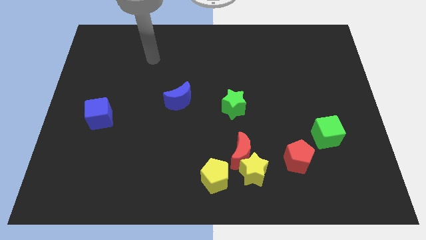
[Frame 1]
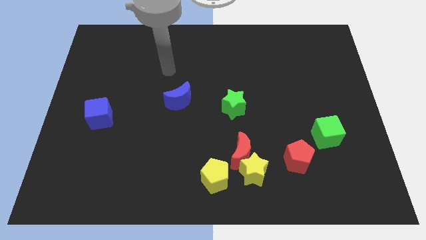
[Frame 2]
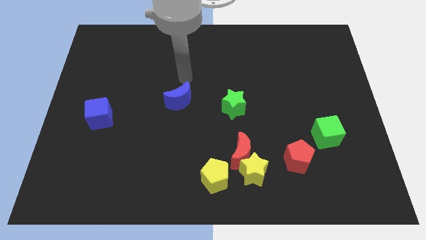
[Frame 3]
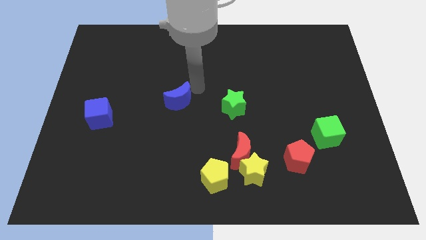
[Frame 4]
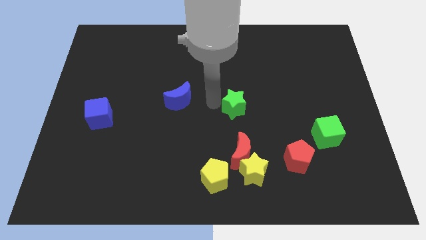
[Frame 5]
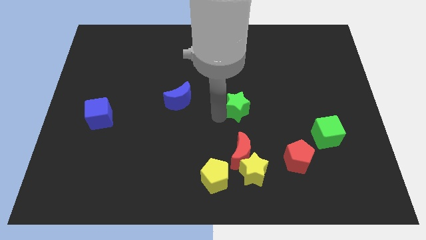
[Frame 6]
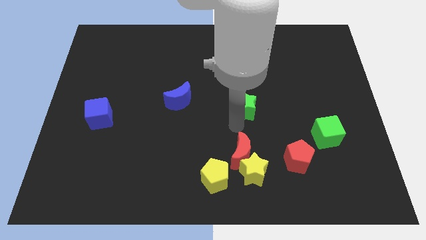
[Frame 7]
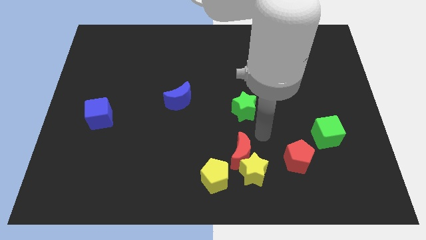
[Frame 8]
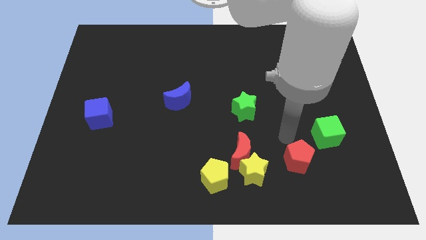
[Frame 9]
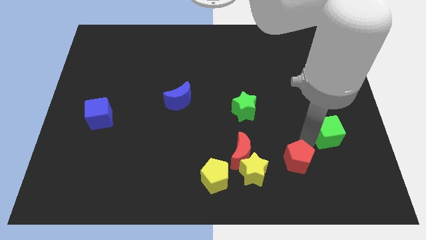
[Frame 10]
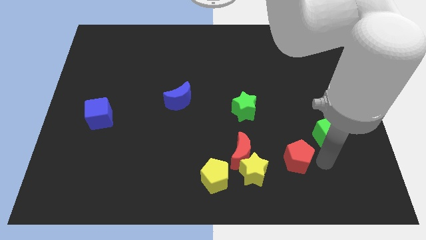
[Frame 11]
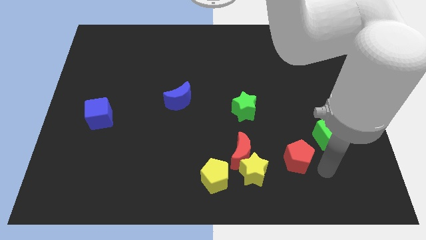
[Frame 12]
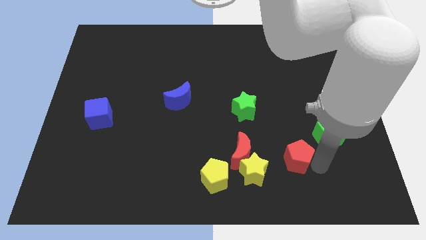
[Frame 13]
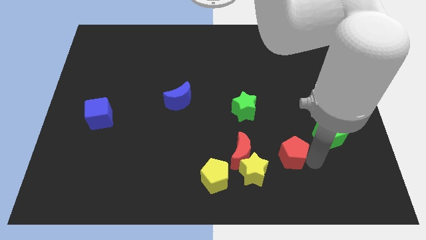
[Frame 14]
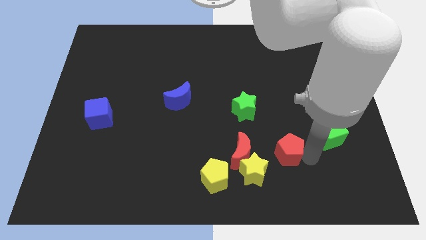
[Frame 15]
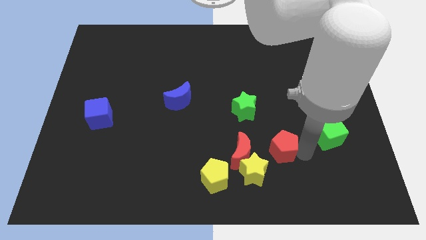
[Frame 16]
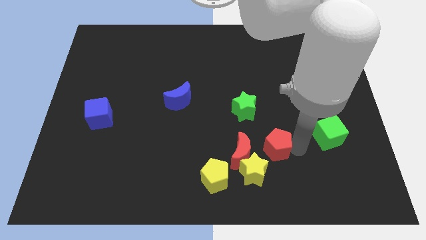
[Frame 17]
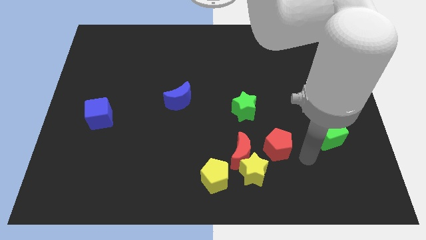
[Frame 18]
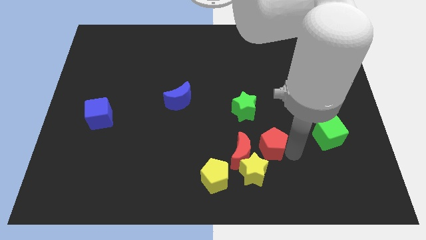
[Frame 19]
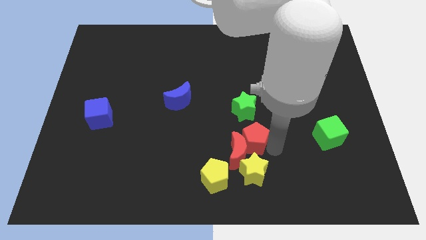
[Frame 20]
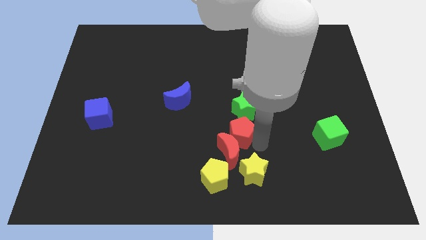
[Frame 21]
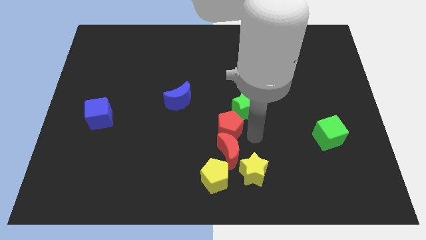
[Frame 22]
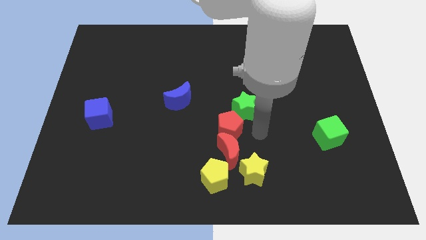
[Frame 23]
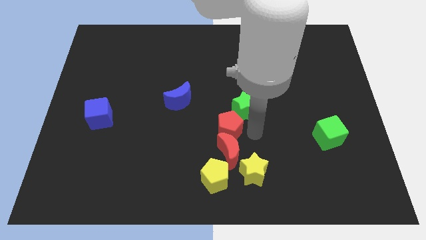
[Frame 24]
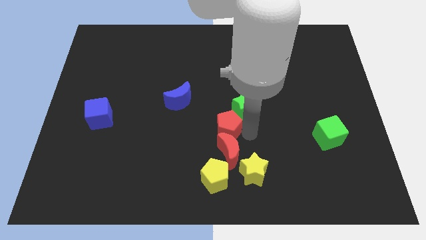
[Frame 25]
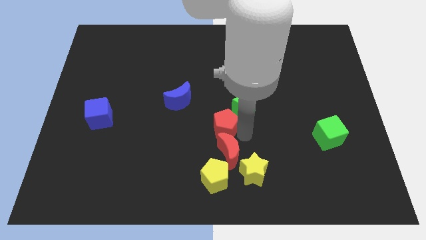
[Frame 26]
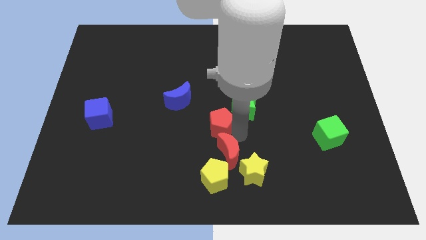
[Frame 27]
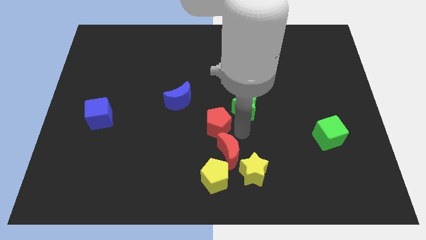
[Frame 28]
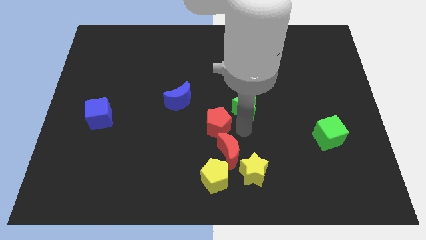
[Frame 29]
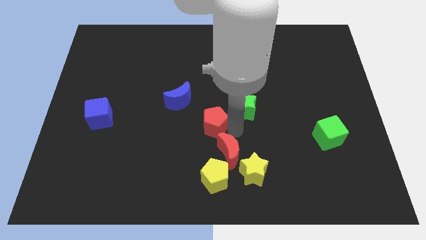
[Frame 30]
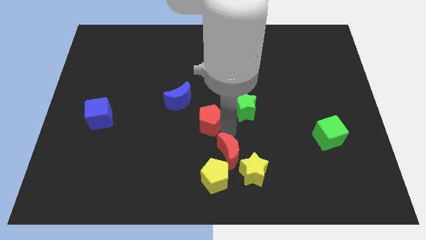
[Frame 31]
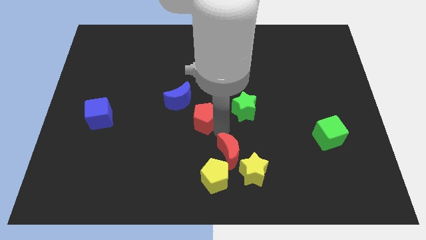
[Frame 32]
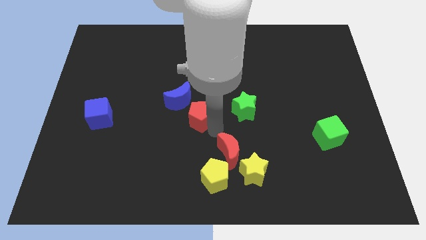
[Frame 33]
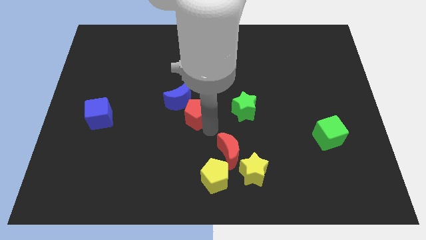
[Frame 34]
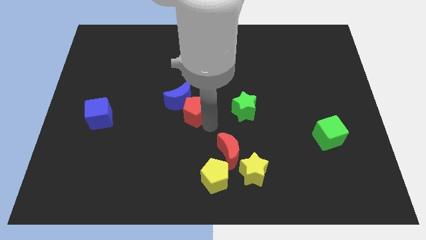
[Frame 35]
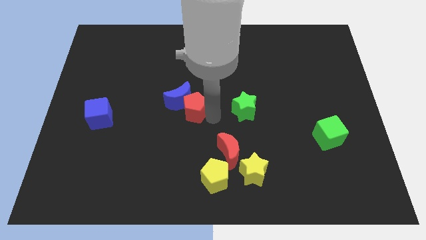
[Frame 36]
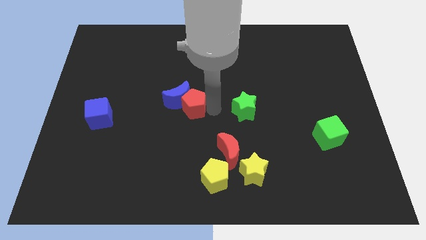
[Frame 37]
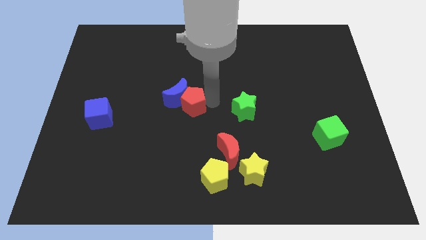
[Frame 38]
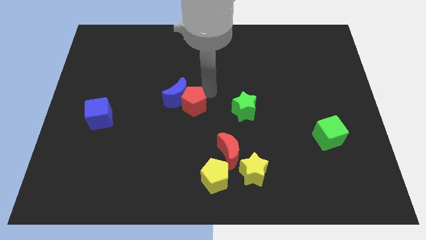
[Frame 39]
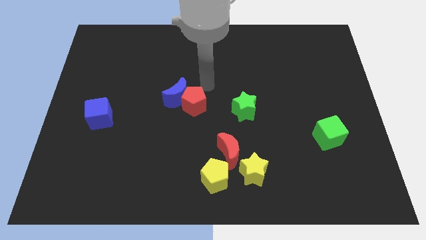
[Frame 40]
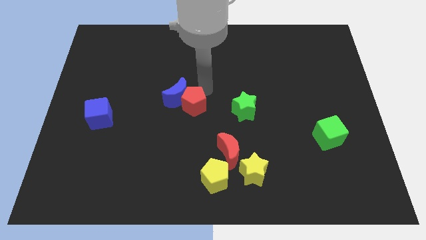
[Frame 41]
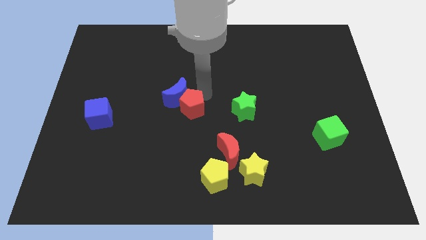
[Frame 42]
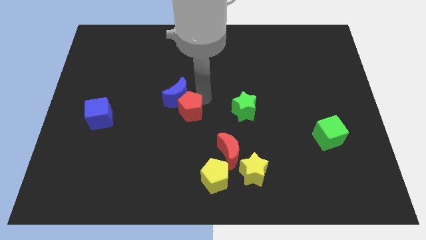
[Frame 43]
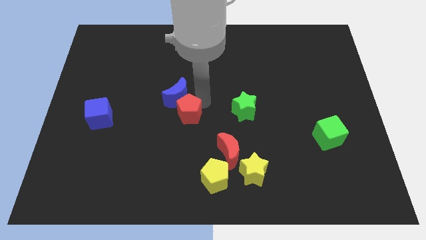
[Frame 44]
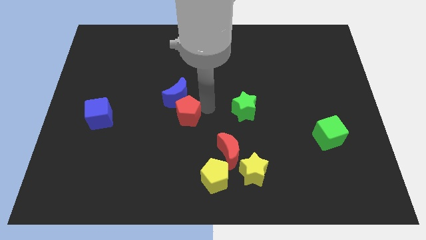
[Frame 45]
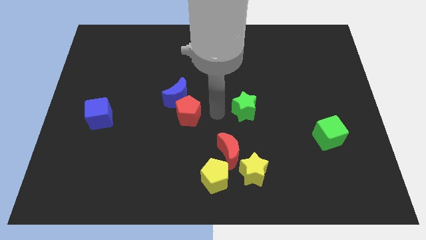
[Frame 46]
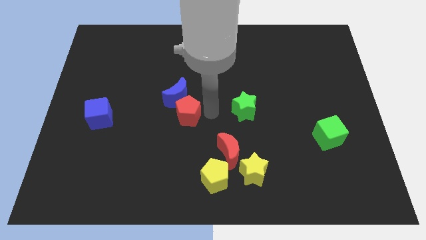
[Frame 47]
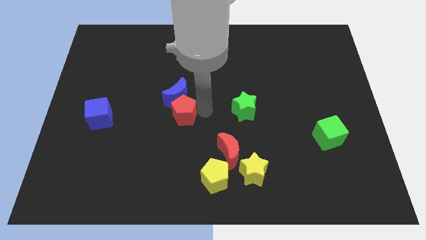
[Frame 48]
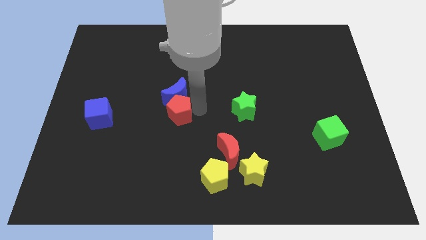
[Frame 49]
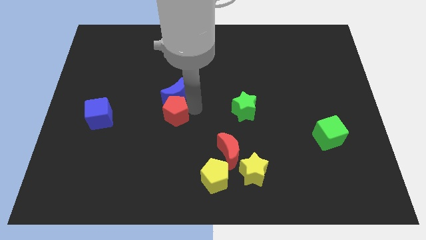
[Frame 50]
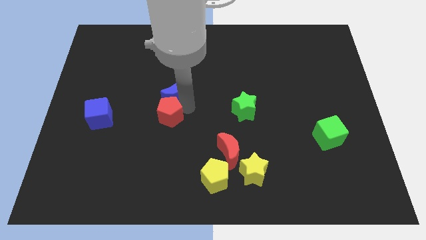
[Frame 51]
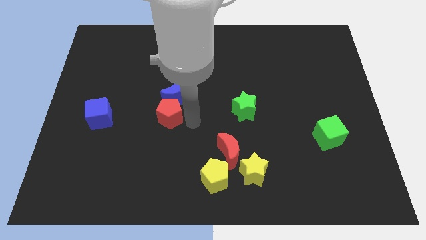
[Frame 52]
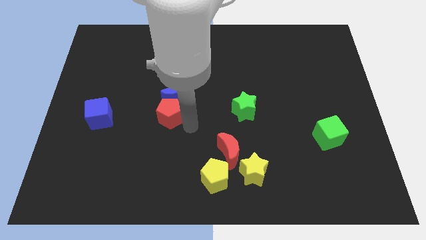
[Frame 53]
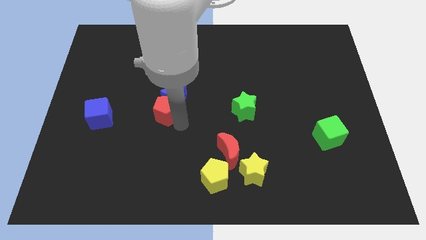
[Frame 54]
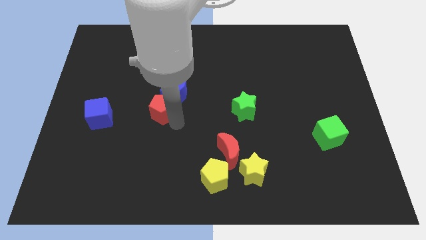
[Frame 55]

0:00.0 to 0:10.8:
put the red pentagon just left of the blue moon

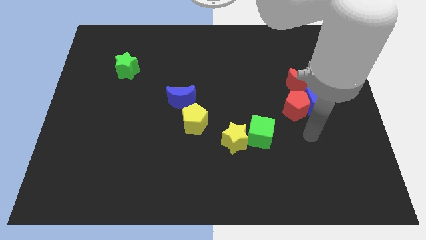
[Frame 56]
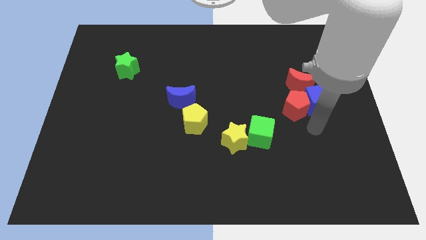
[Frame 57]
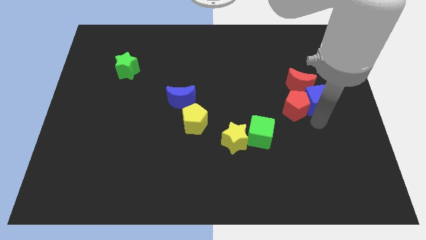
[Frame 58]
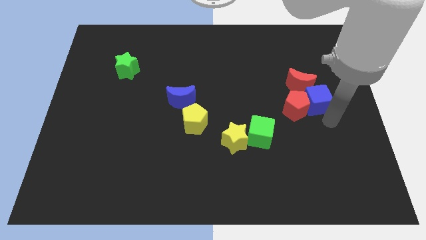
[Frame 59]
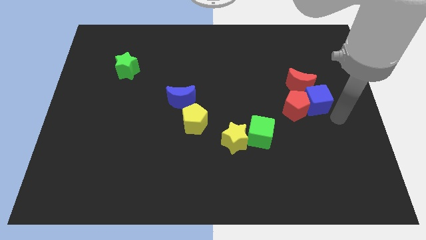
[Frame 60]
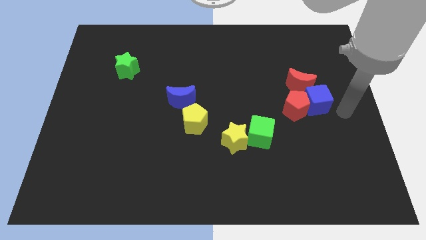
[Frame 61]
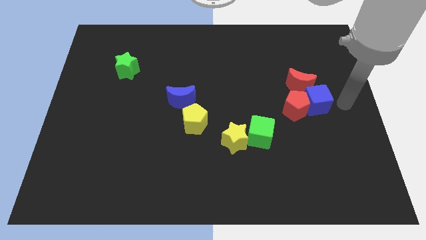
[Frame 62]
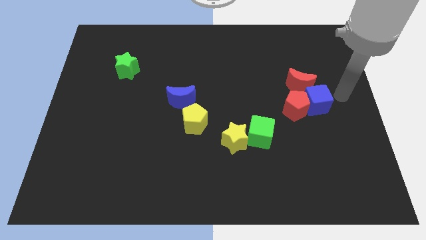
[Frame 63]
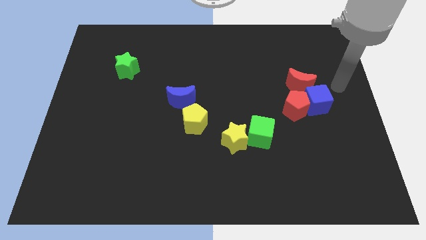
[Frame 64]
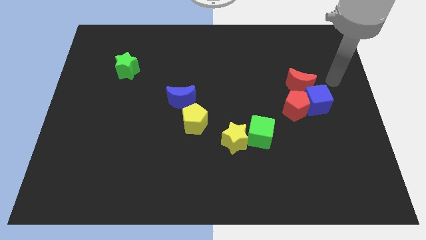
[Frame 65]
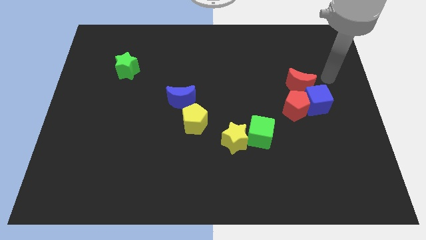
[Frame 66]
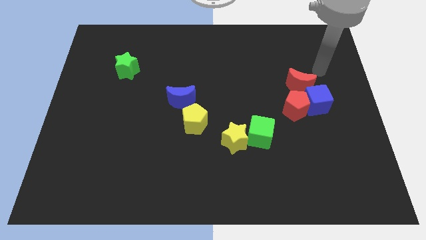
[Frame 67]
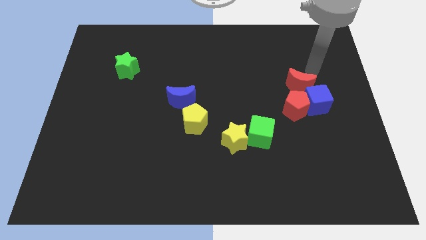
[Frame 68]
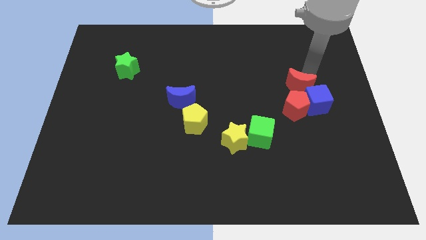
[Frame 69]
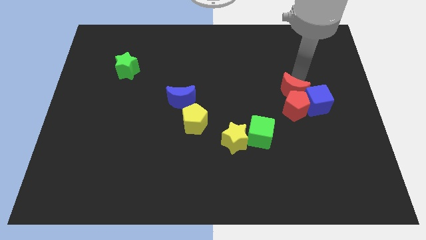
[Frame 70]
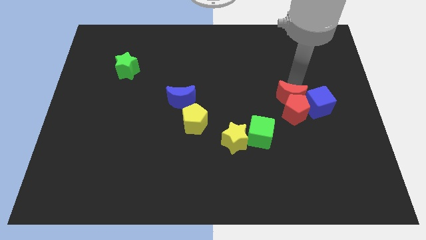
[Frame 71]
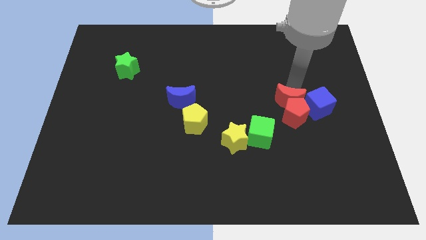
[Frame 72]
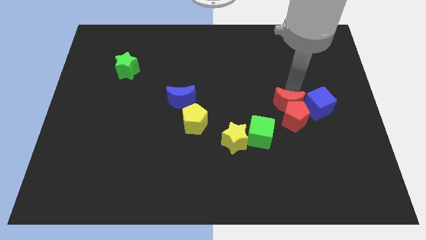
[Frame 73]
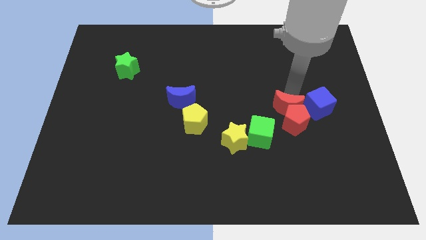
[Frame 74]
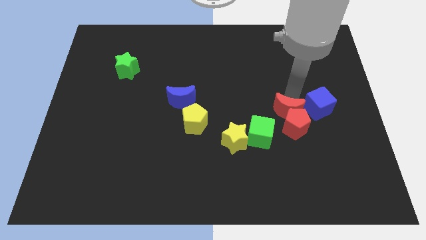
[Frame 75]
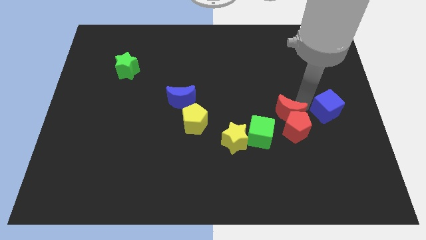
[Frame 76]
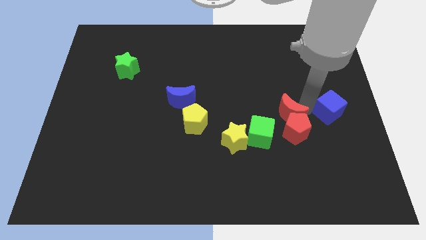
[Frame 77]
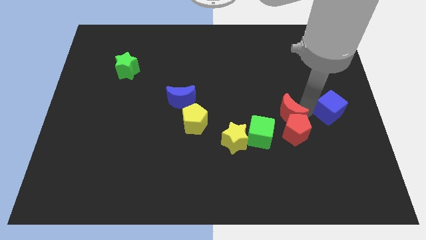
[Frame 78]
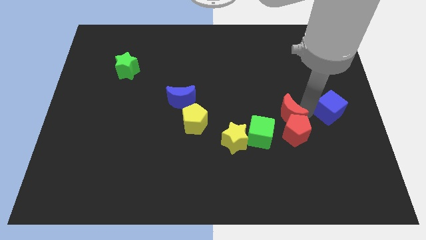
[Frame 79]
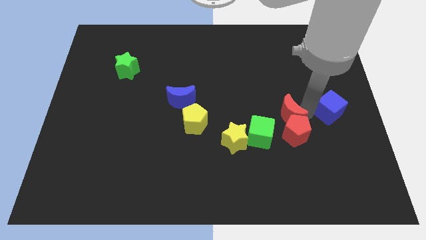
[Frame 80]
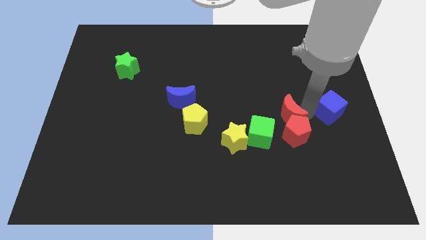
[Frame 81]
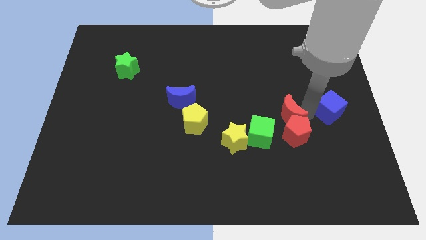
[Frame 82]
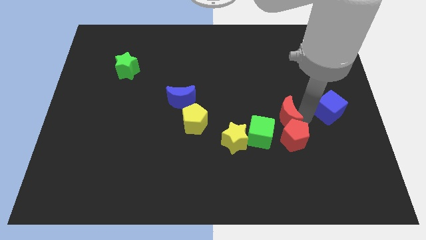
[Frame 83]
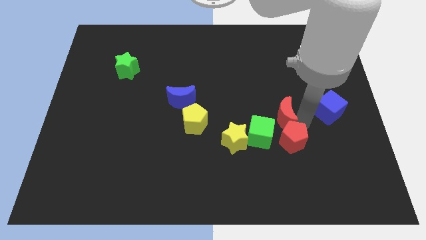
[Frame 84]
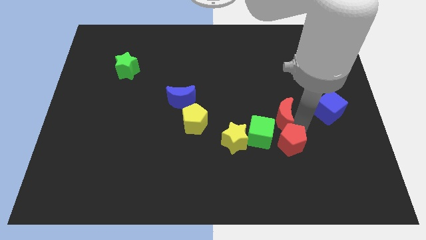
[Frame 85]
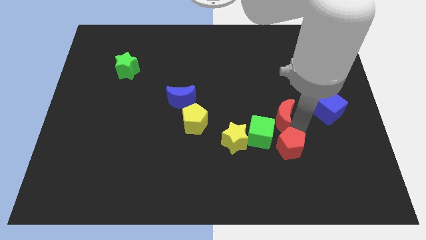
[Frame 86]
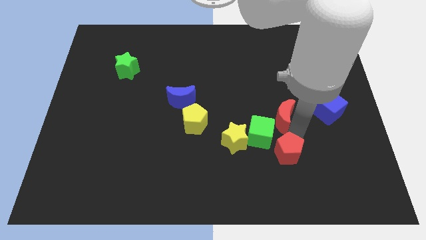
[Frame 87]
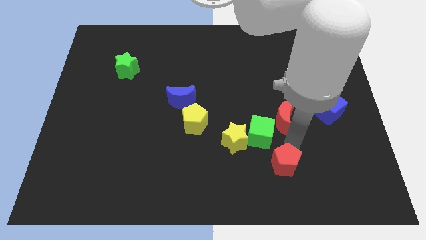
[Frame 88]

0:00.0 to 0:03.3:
slide the red pentagon to the bottom side of the green cube
